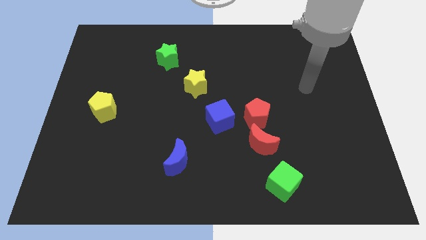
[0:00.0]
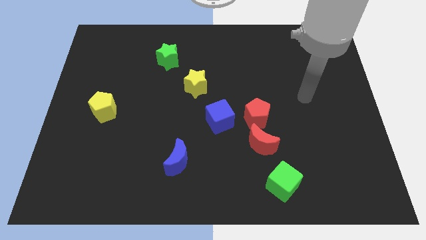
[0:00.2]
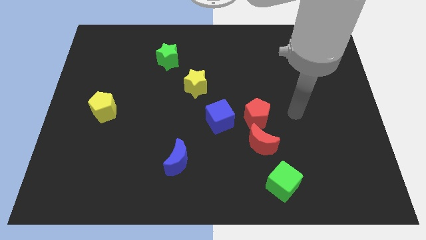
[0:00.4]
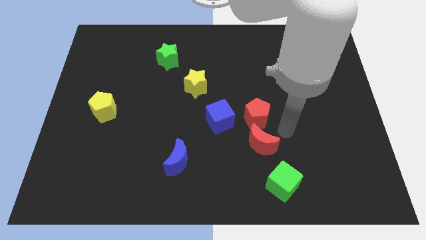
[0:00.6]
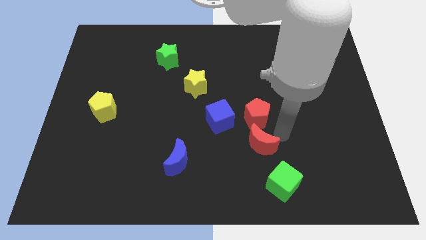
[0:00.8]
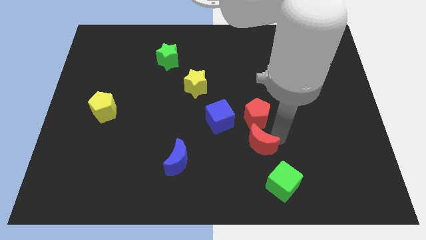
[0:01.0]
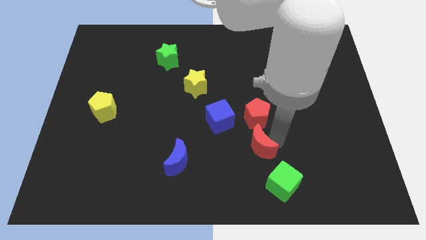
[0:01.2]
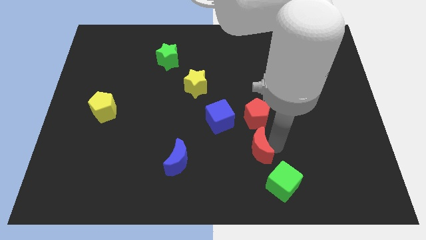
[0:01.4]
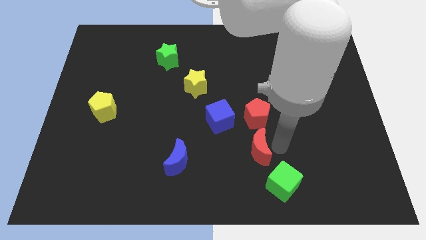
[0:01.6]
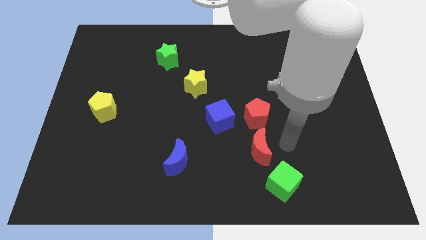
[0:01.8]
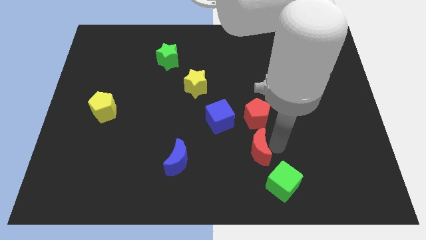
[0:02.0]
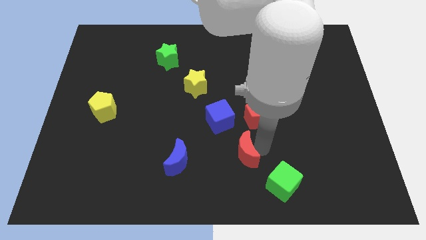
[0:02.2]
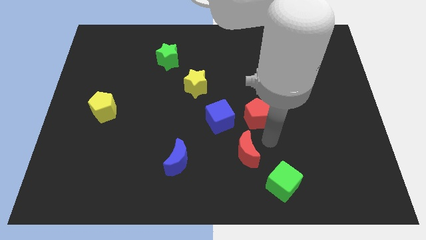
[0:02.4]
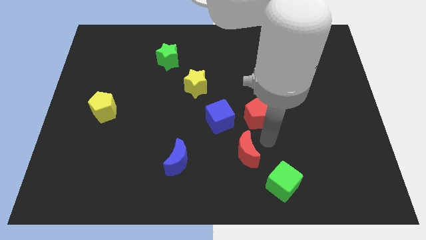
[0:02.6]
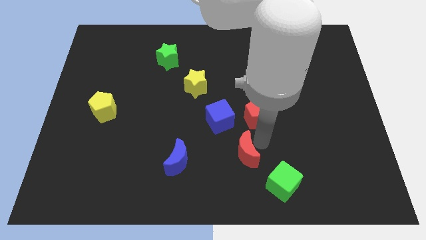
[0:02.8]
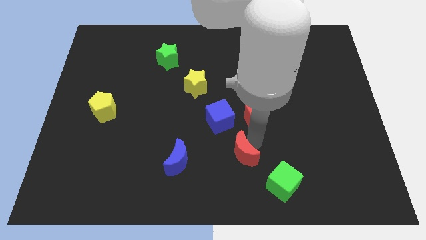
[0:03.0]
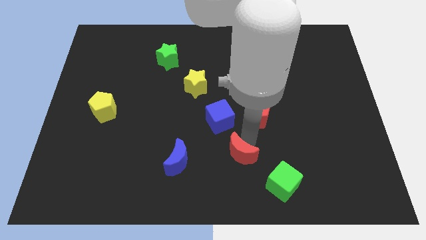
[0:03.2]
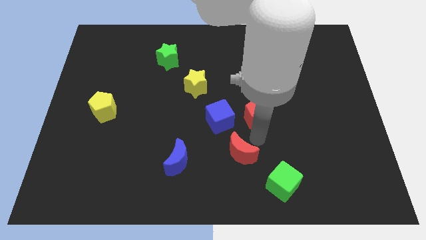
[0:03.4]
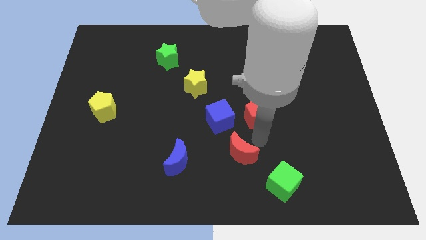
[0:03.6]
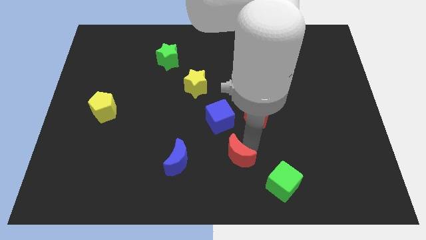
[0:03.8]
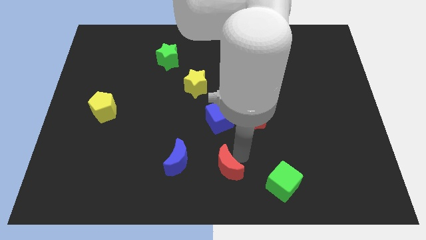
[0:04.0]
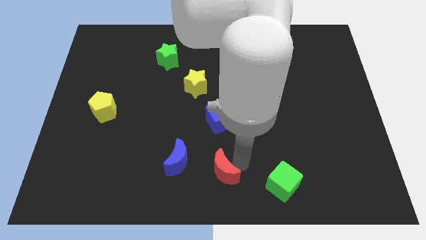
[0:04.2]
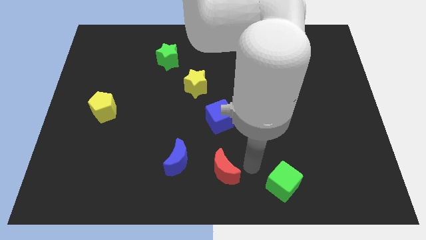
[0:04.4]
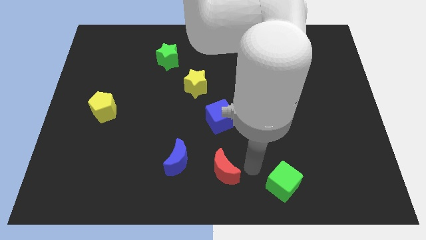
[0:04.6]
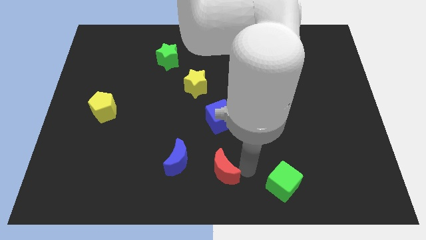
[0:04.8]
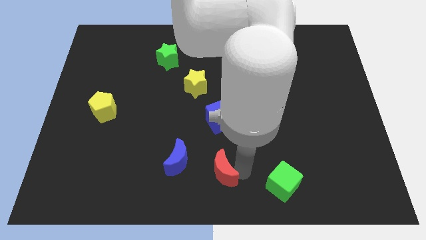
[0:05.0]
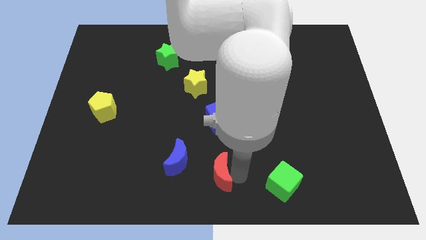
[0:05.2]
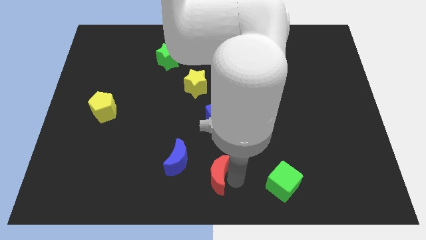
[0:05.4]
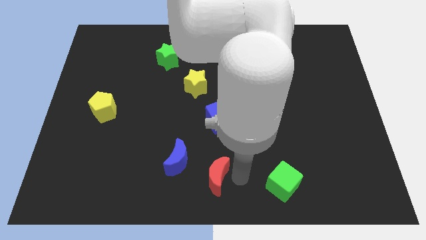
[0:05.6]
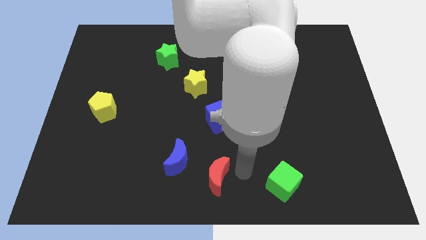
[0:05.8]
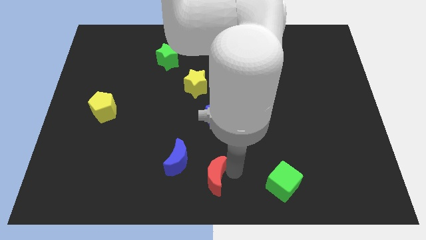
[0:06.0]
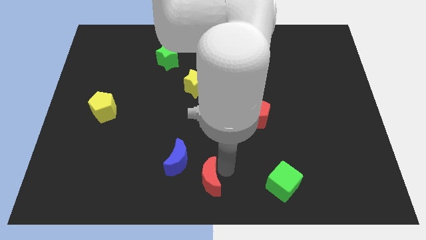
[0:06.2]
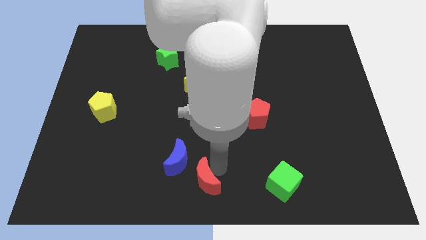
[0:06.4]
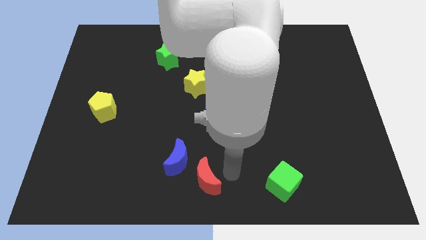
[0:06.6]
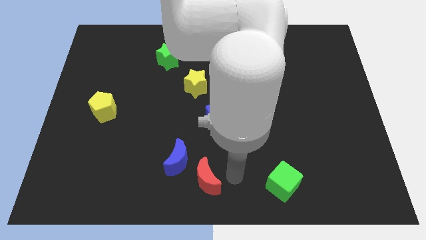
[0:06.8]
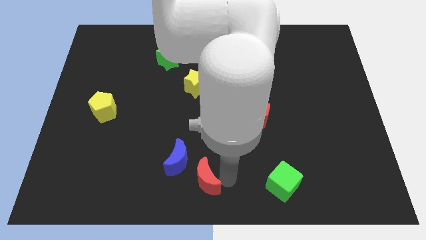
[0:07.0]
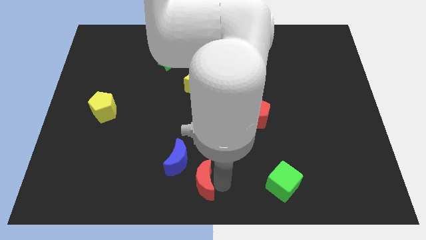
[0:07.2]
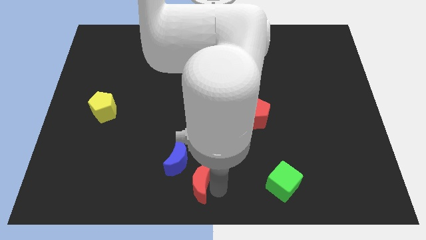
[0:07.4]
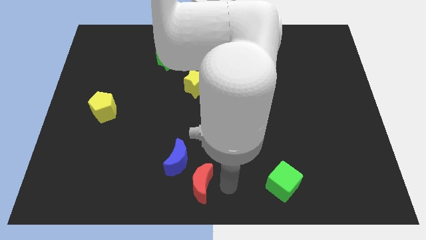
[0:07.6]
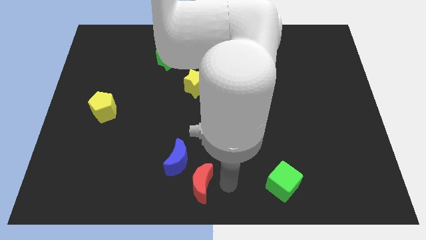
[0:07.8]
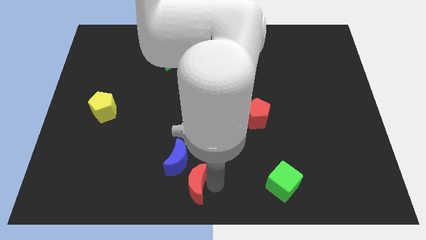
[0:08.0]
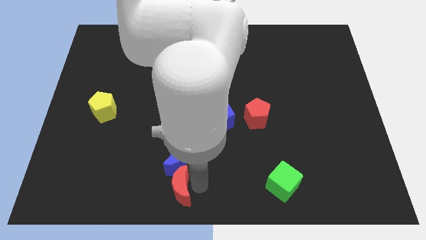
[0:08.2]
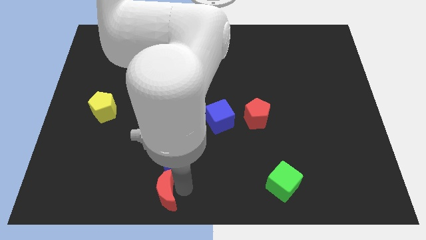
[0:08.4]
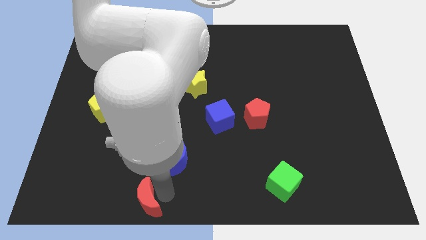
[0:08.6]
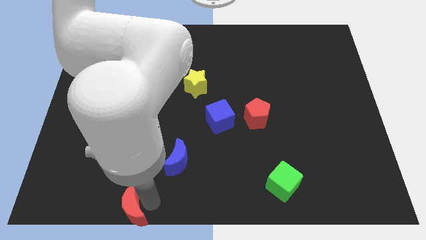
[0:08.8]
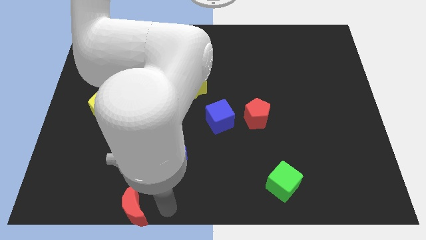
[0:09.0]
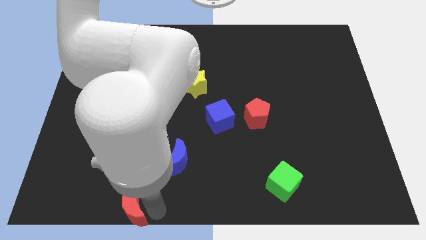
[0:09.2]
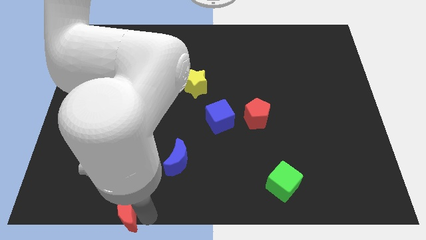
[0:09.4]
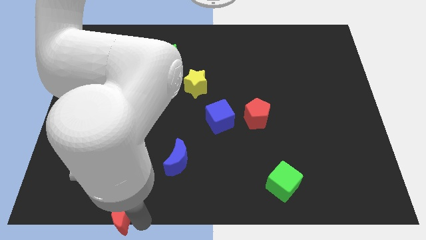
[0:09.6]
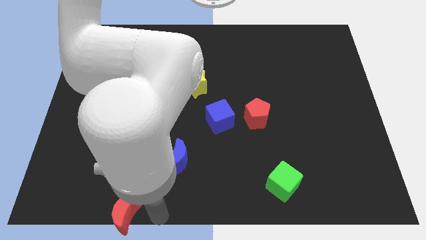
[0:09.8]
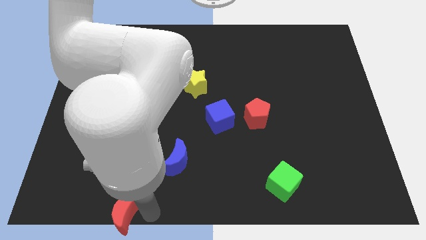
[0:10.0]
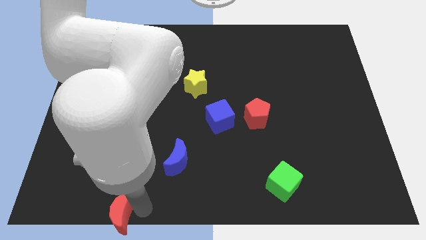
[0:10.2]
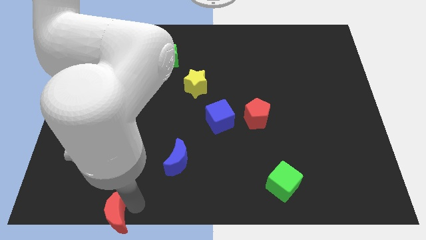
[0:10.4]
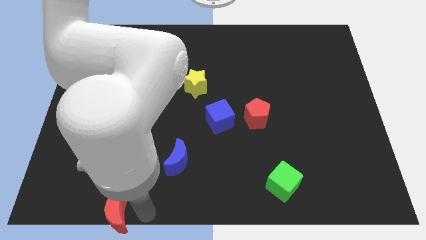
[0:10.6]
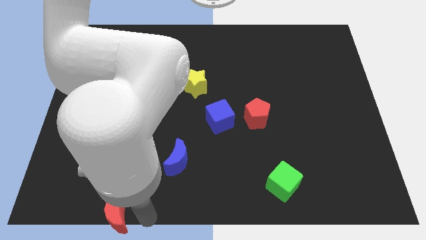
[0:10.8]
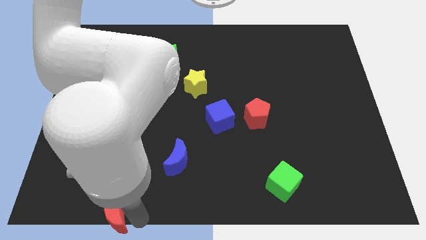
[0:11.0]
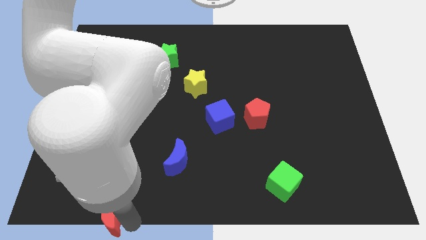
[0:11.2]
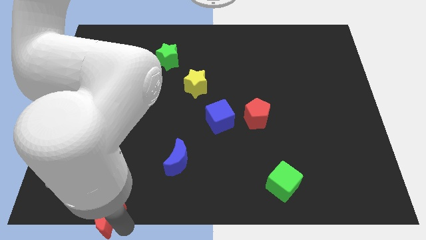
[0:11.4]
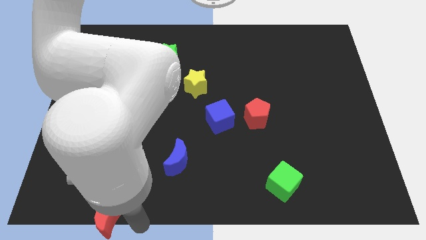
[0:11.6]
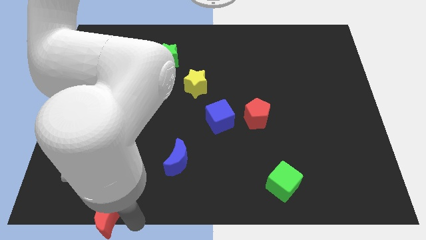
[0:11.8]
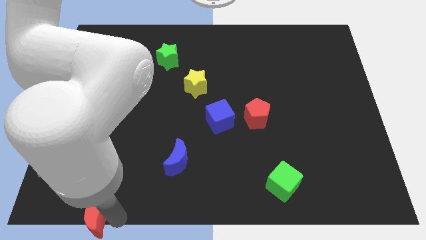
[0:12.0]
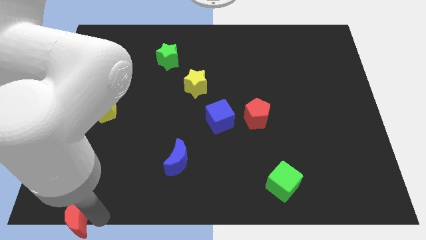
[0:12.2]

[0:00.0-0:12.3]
put the red moon to the lower left corner
